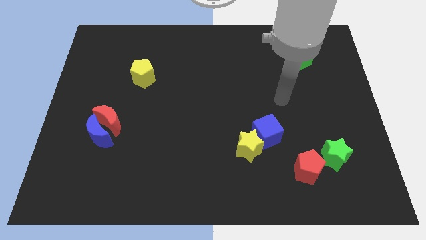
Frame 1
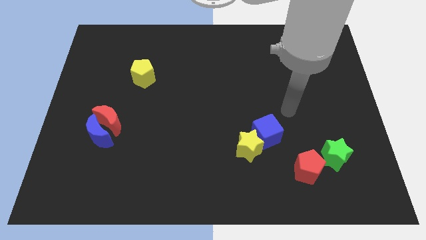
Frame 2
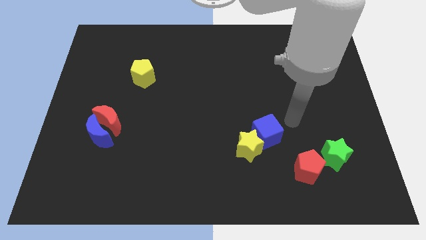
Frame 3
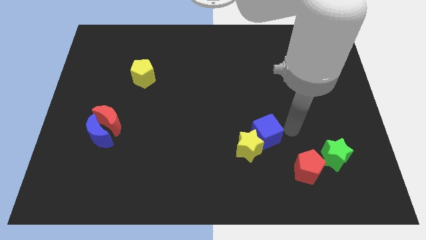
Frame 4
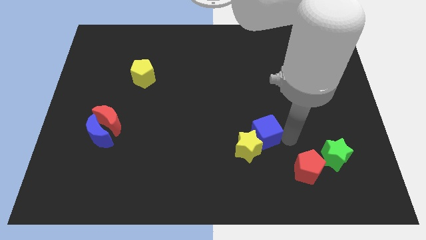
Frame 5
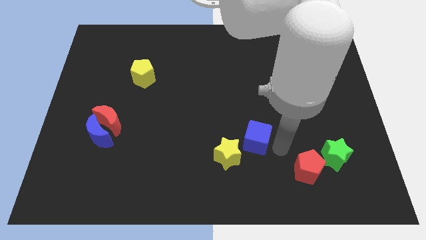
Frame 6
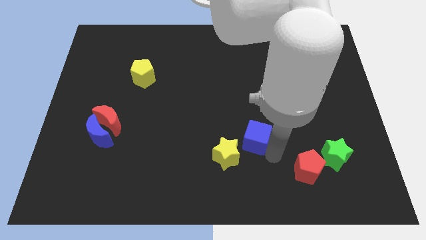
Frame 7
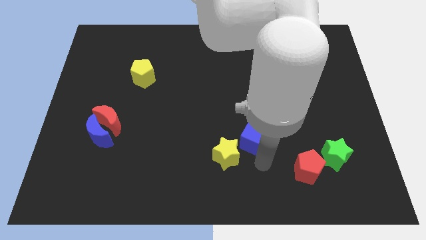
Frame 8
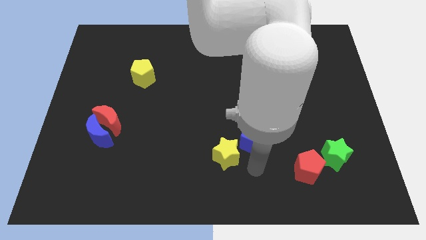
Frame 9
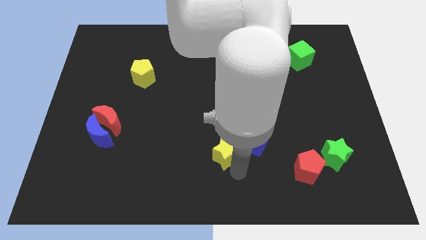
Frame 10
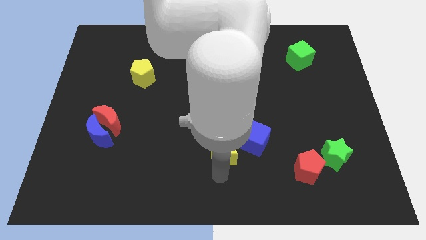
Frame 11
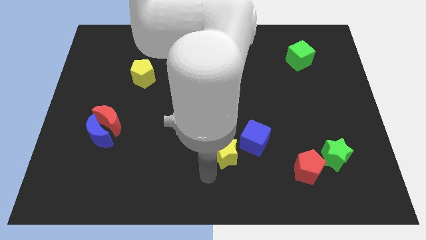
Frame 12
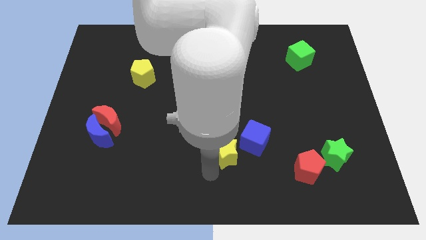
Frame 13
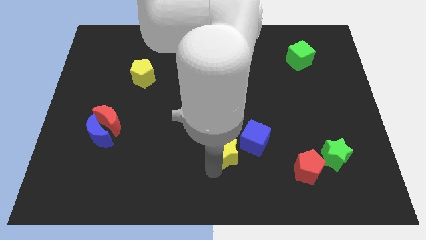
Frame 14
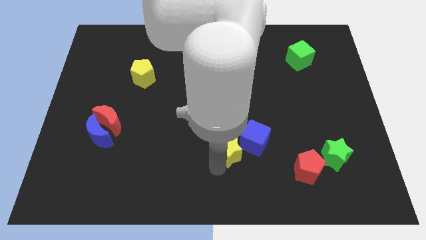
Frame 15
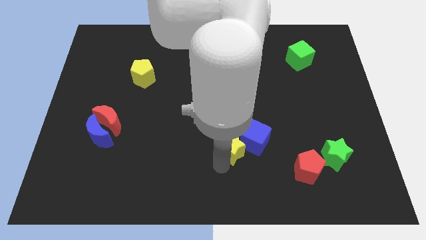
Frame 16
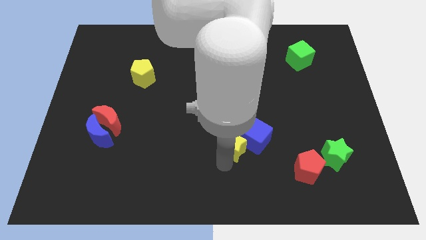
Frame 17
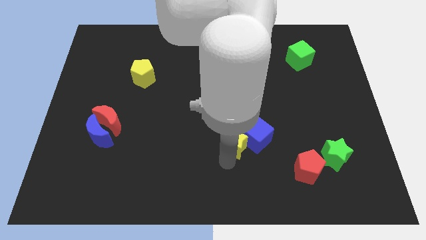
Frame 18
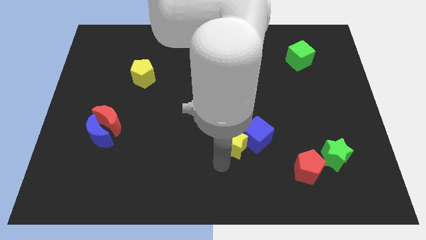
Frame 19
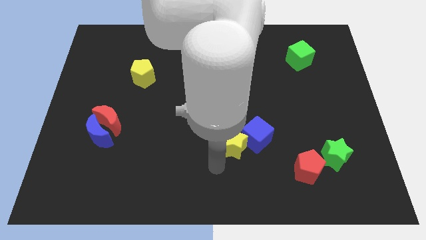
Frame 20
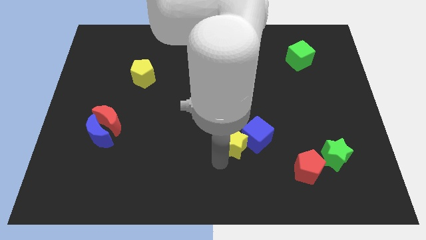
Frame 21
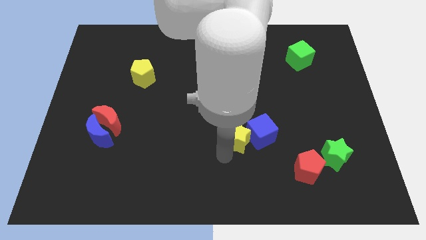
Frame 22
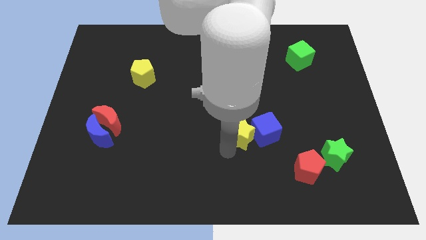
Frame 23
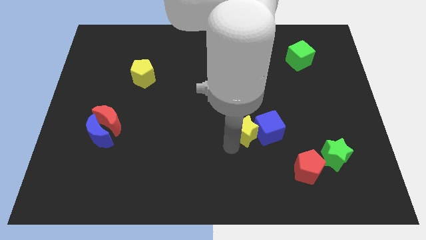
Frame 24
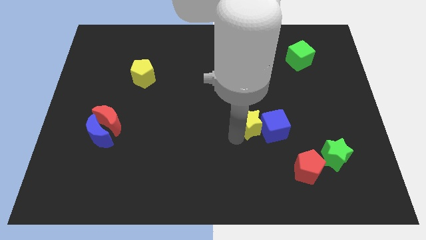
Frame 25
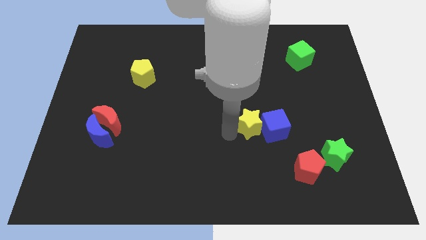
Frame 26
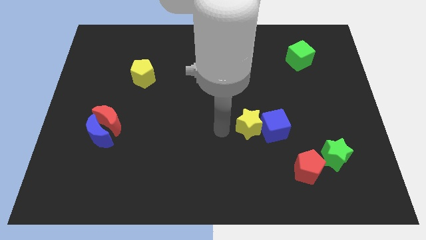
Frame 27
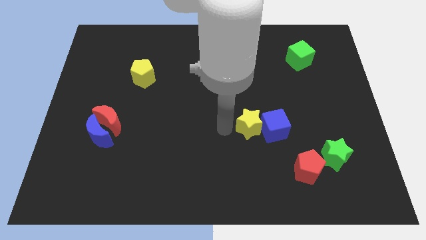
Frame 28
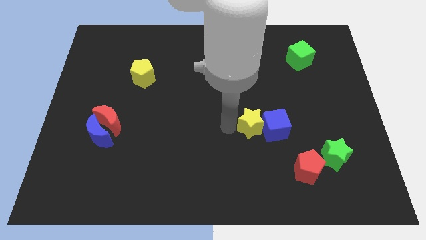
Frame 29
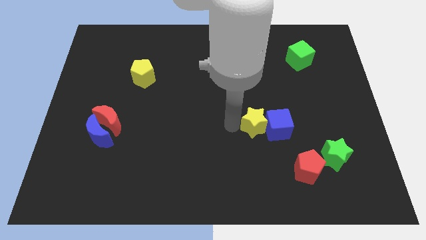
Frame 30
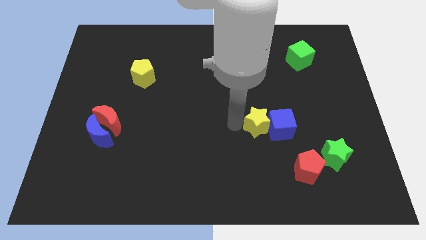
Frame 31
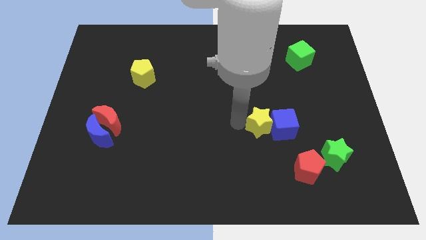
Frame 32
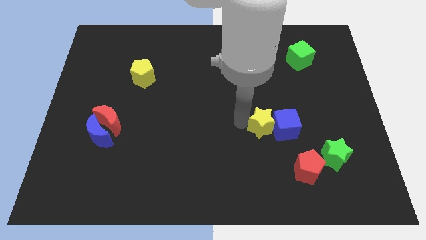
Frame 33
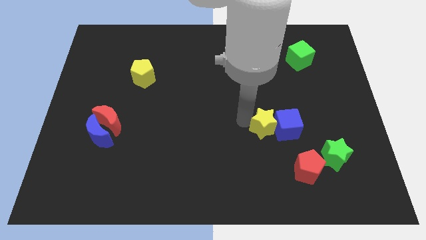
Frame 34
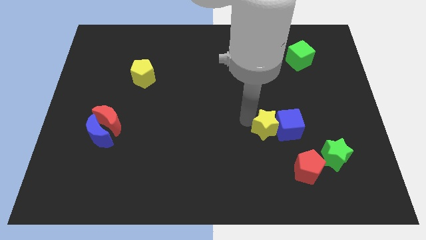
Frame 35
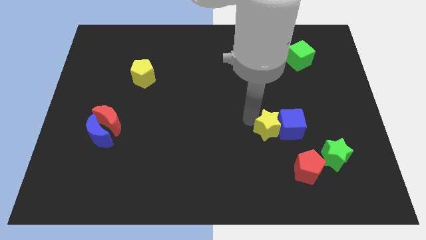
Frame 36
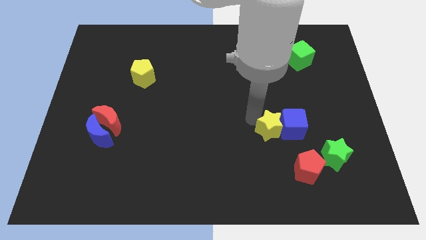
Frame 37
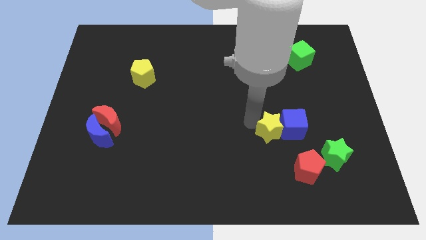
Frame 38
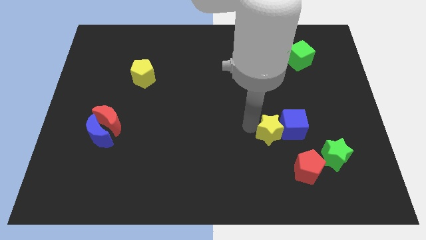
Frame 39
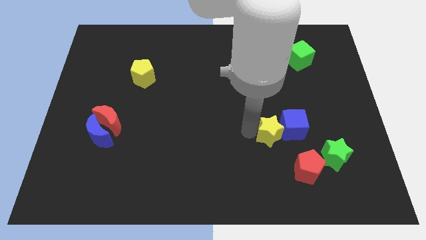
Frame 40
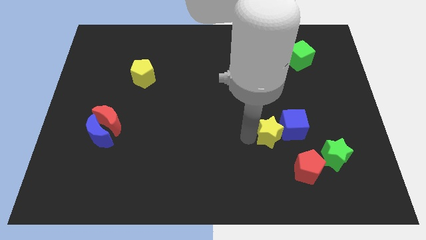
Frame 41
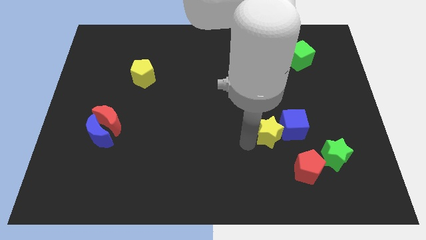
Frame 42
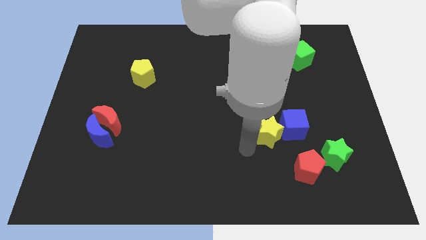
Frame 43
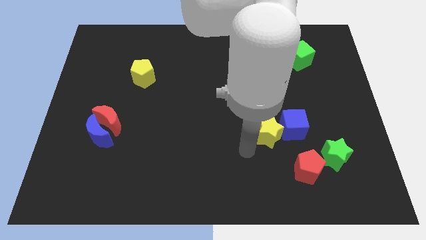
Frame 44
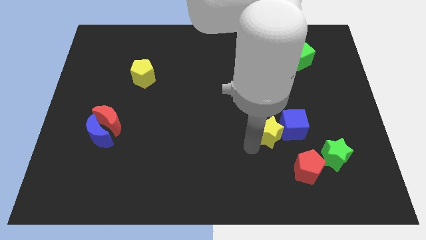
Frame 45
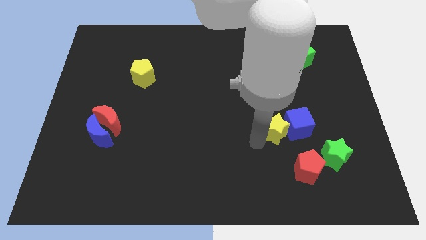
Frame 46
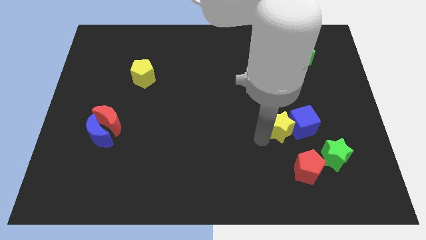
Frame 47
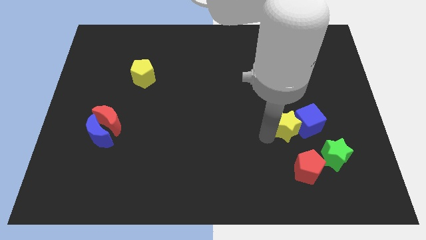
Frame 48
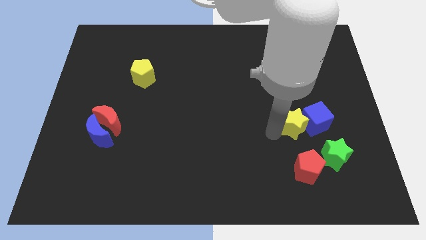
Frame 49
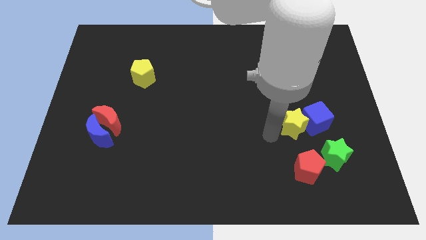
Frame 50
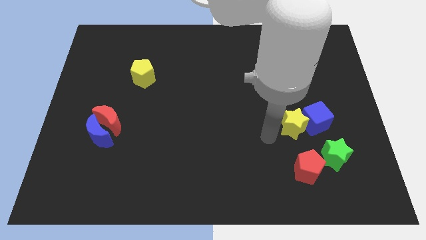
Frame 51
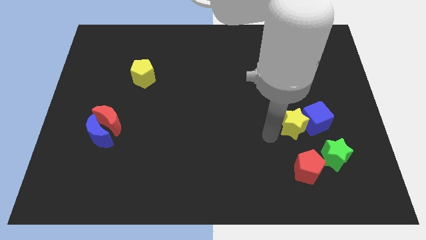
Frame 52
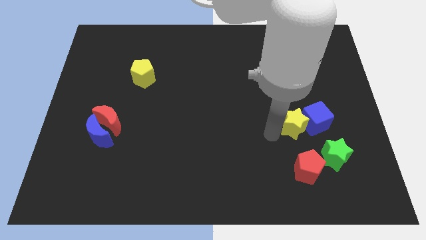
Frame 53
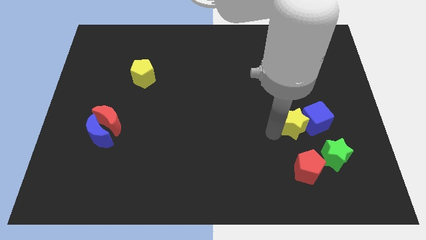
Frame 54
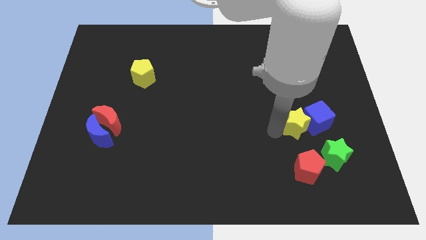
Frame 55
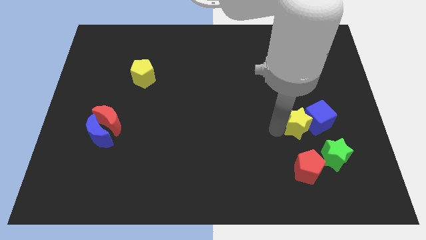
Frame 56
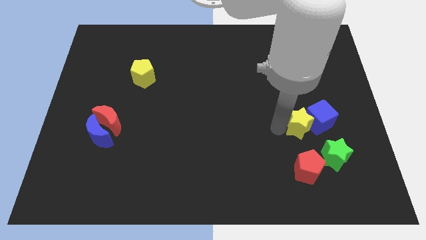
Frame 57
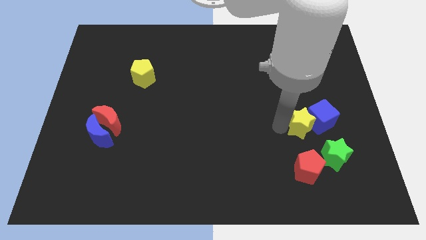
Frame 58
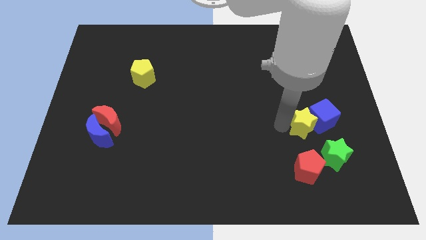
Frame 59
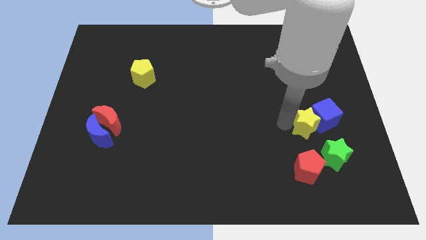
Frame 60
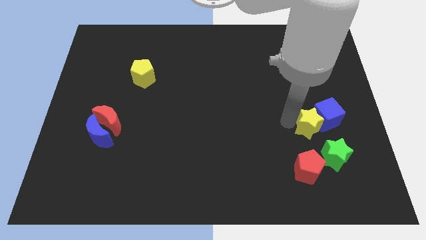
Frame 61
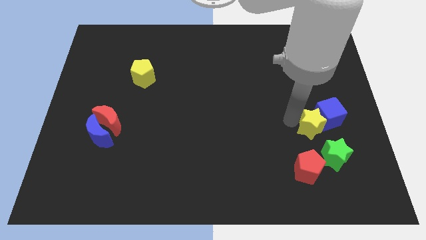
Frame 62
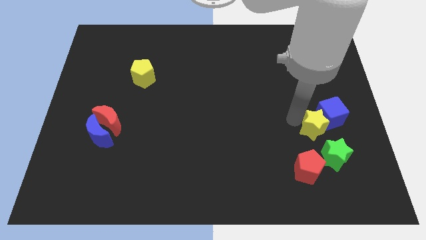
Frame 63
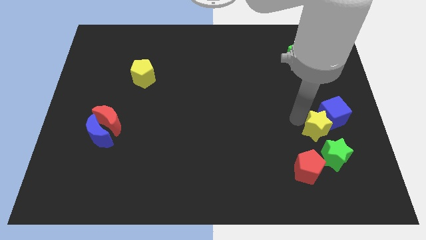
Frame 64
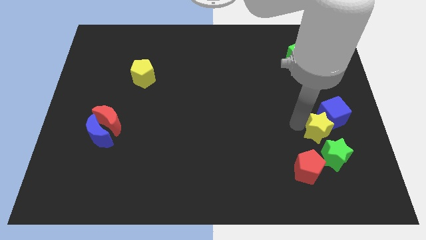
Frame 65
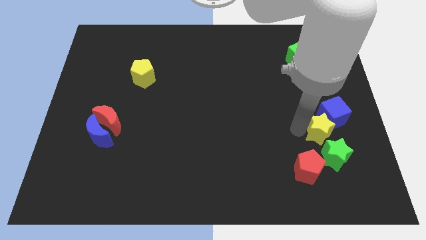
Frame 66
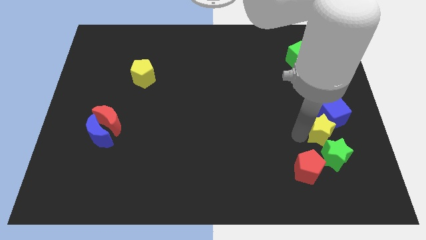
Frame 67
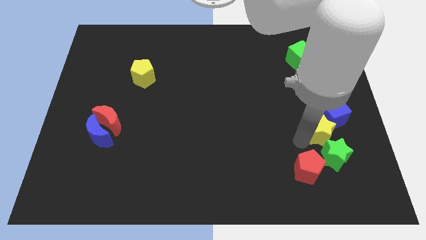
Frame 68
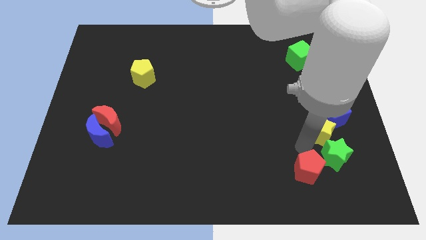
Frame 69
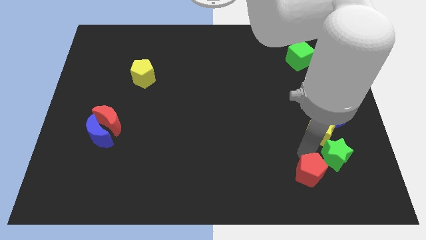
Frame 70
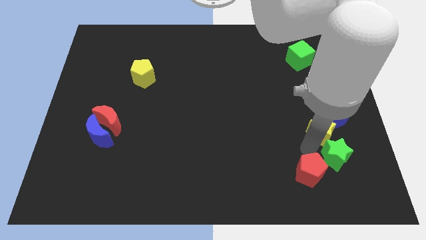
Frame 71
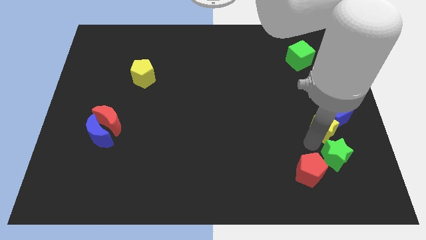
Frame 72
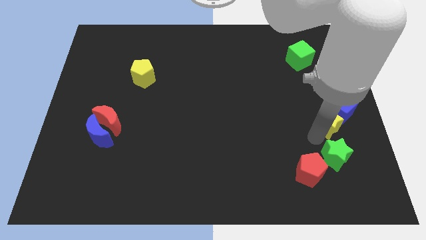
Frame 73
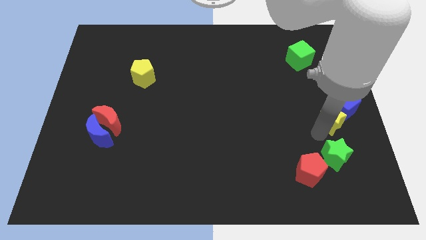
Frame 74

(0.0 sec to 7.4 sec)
move the yellow star to the right side
